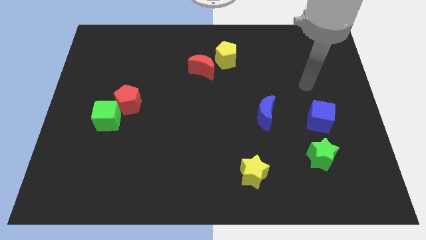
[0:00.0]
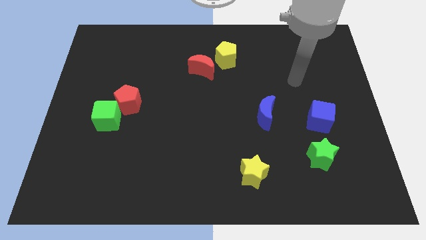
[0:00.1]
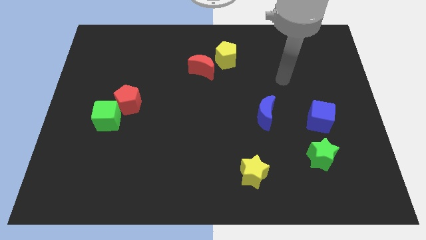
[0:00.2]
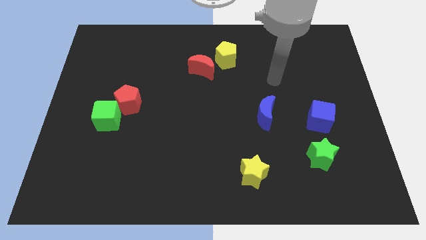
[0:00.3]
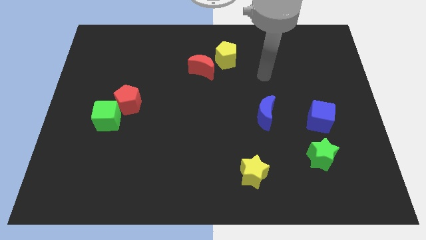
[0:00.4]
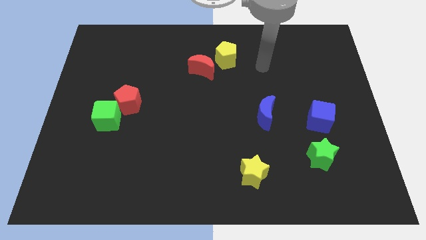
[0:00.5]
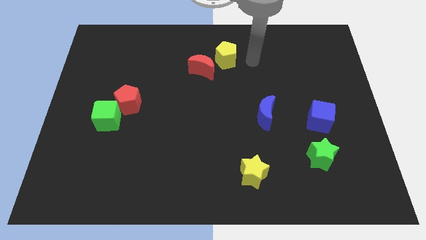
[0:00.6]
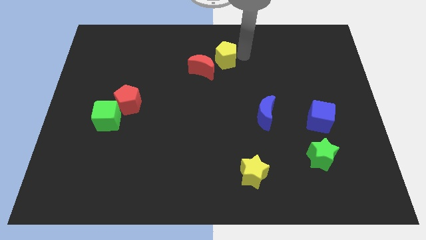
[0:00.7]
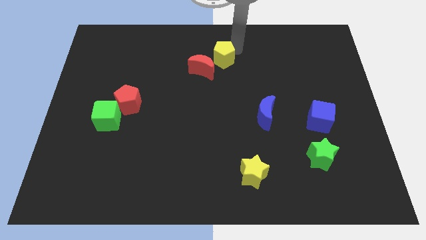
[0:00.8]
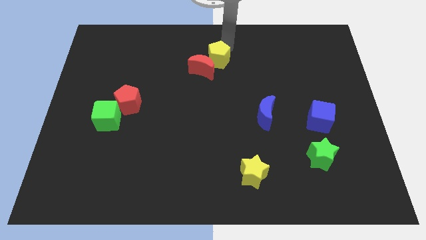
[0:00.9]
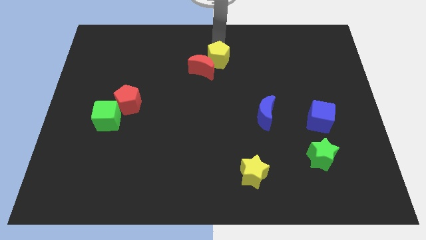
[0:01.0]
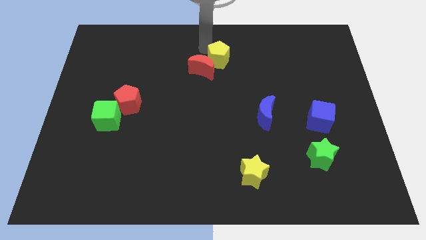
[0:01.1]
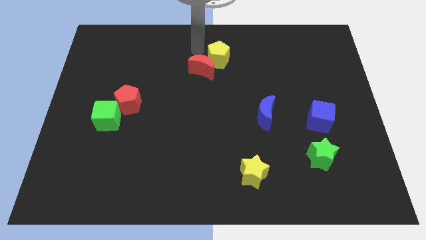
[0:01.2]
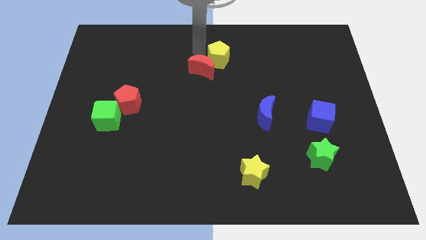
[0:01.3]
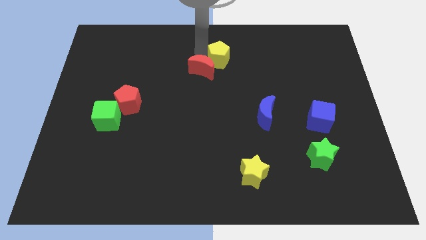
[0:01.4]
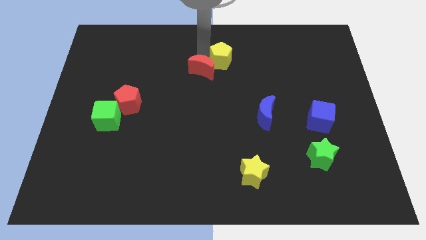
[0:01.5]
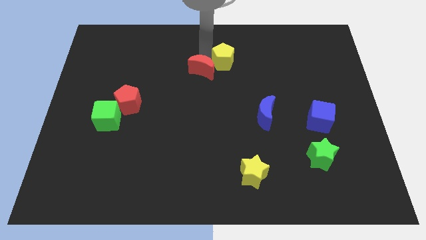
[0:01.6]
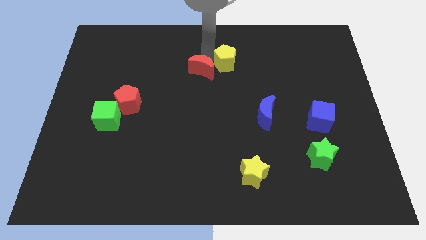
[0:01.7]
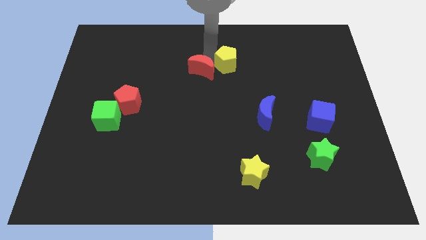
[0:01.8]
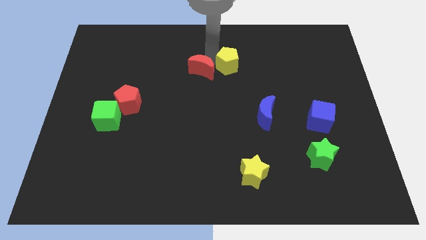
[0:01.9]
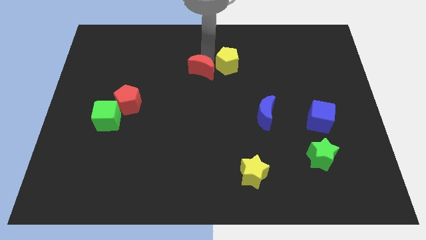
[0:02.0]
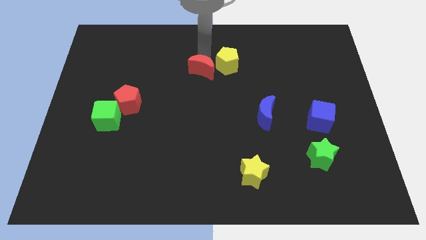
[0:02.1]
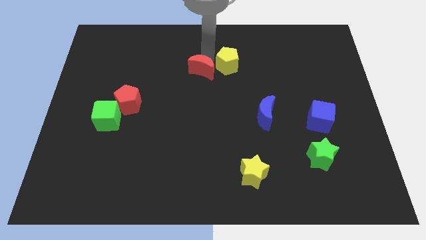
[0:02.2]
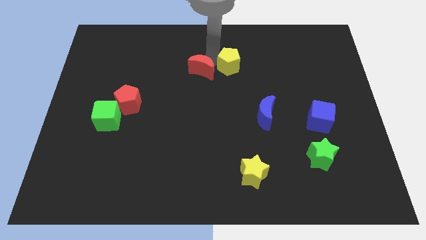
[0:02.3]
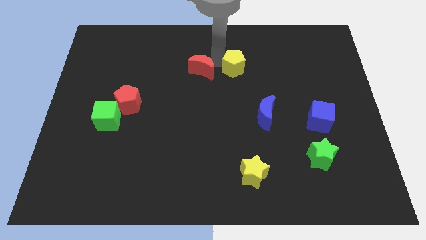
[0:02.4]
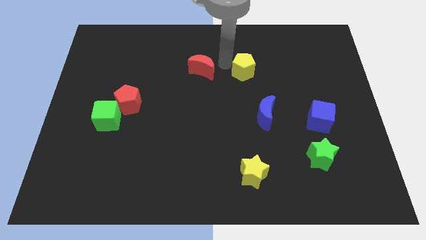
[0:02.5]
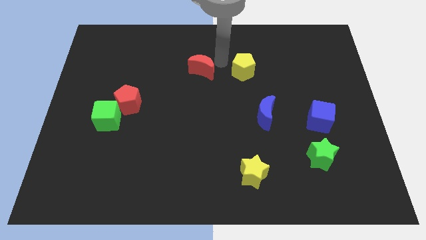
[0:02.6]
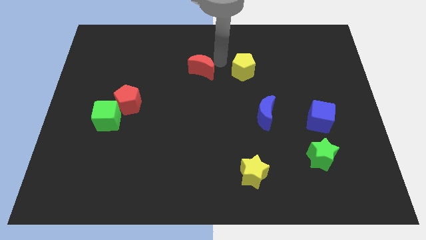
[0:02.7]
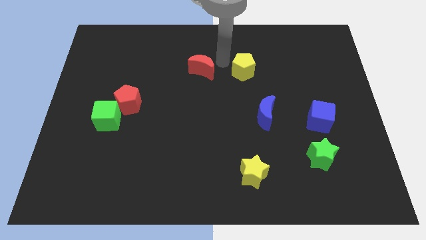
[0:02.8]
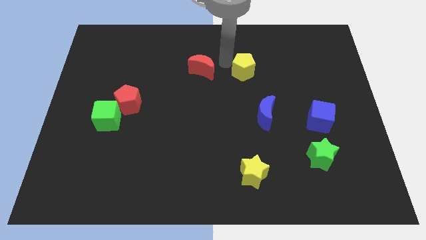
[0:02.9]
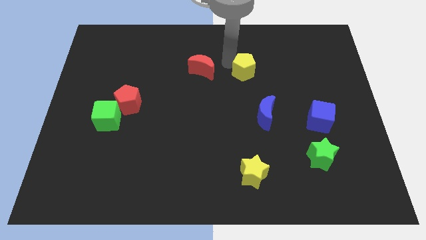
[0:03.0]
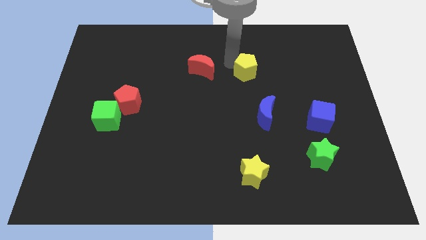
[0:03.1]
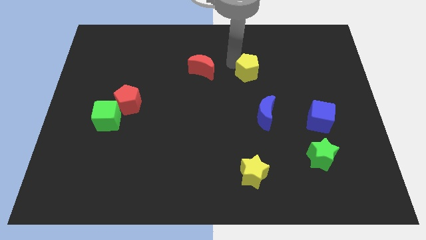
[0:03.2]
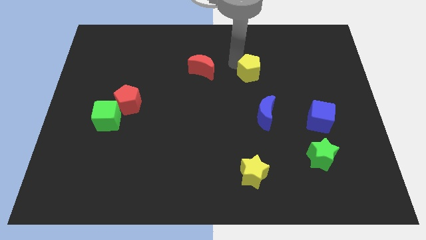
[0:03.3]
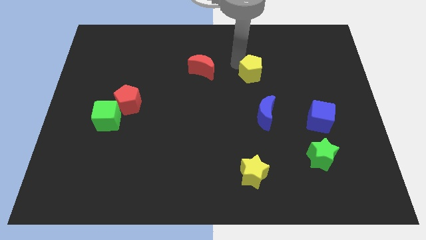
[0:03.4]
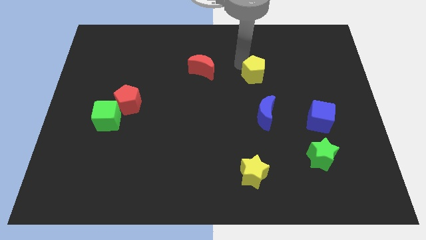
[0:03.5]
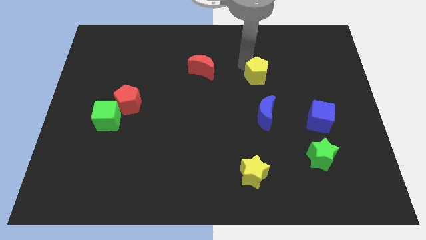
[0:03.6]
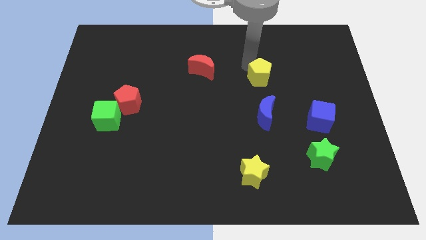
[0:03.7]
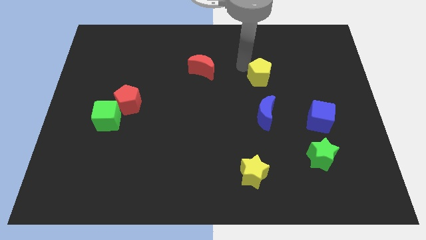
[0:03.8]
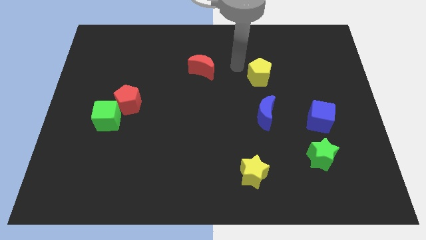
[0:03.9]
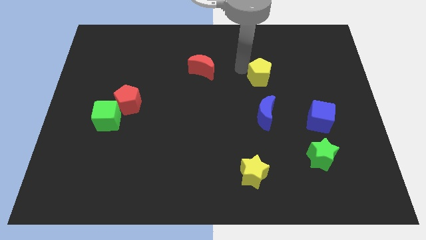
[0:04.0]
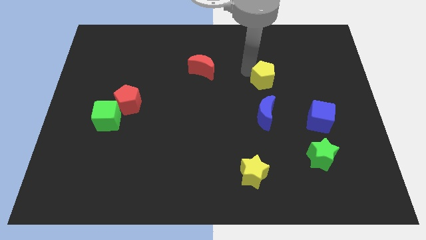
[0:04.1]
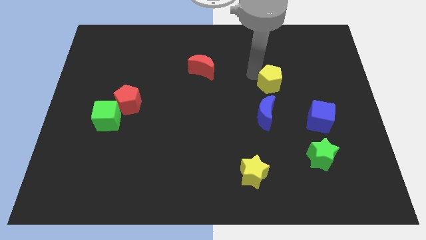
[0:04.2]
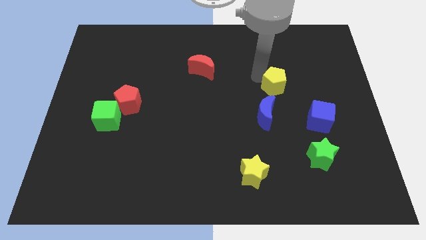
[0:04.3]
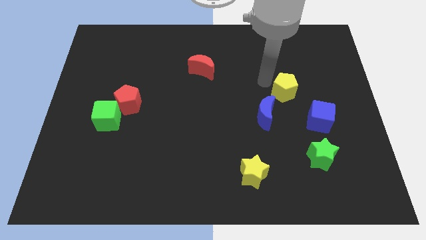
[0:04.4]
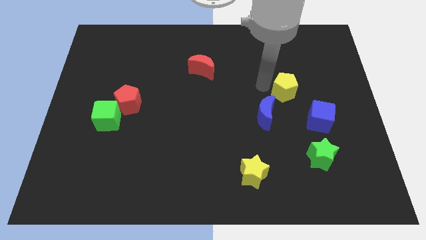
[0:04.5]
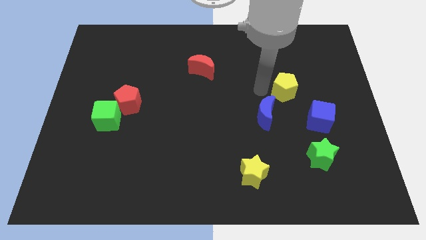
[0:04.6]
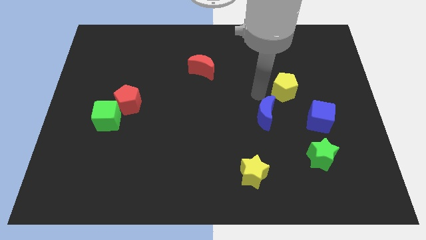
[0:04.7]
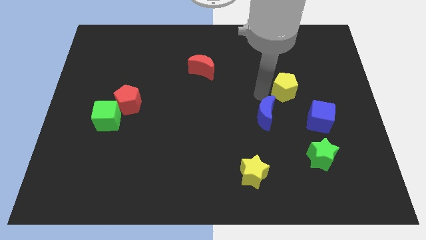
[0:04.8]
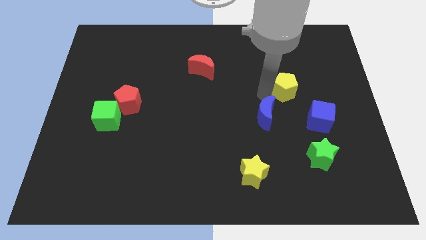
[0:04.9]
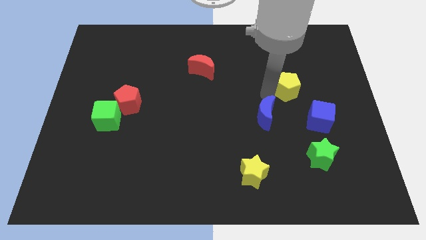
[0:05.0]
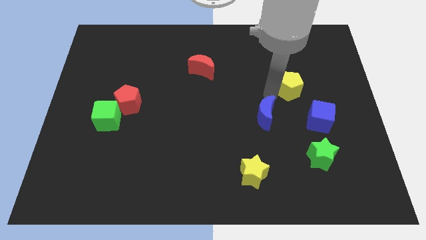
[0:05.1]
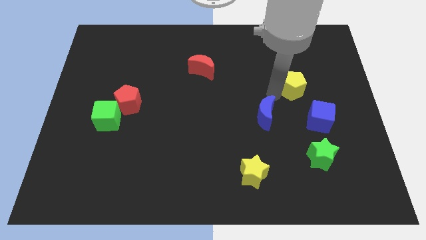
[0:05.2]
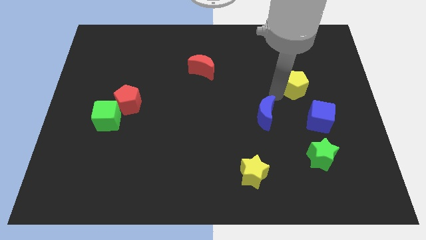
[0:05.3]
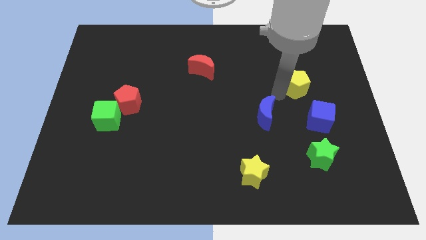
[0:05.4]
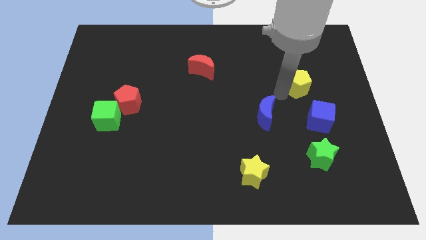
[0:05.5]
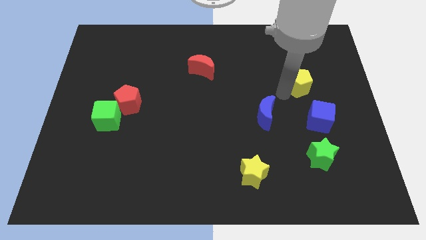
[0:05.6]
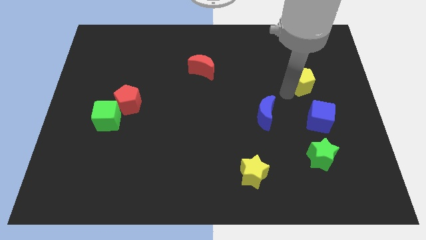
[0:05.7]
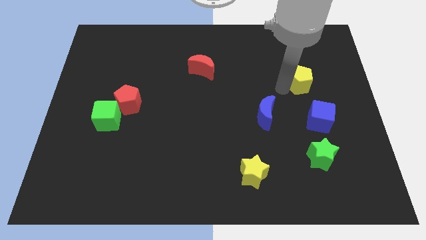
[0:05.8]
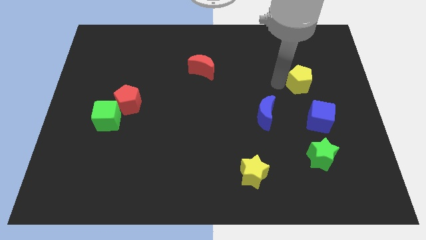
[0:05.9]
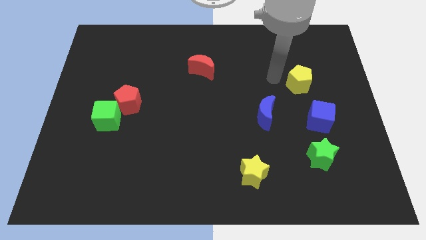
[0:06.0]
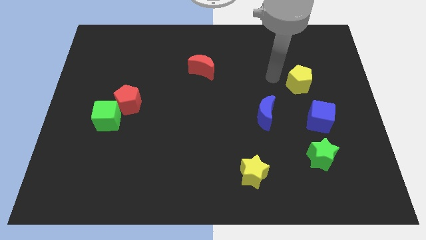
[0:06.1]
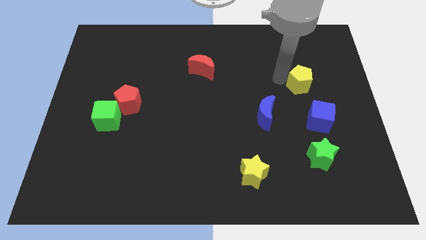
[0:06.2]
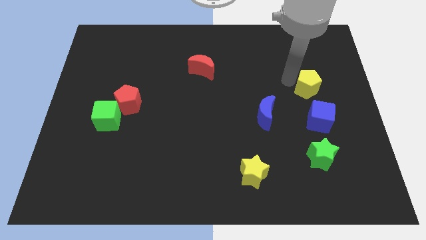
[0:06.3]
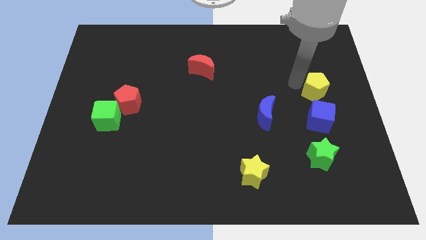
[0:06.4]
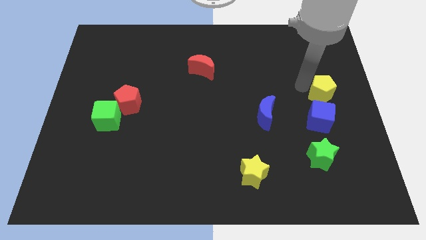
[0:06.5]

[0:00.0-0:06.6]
push the yellow pentagon to the right side of the board
